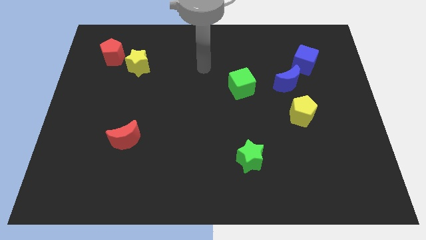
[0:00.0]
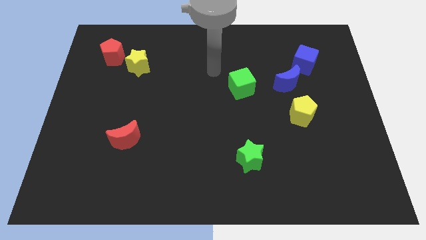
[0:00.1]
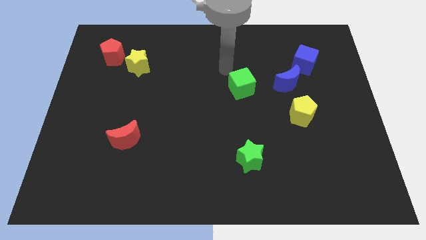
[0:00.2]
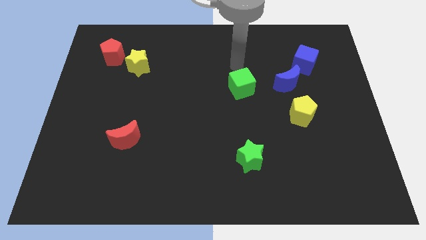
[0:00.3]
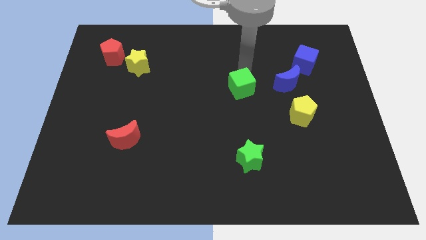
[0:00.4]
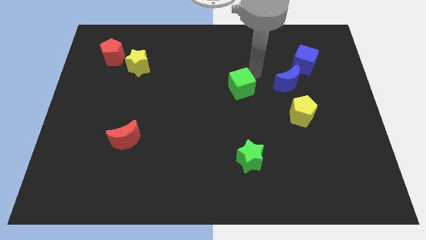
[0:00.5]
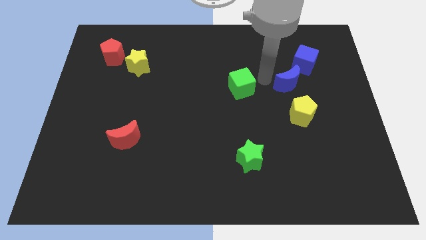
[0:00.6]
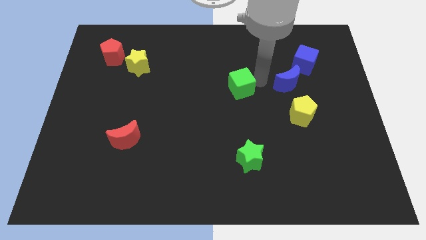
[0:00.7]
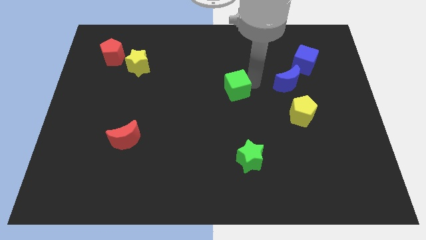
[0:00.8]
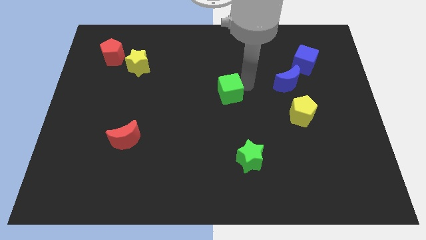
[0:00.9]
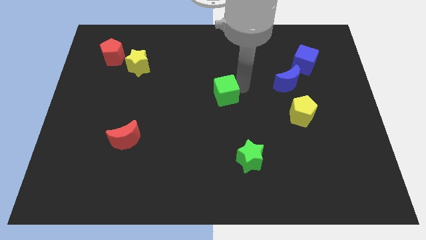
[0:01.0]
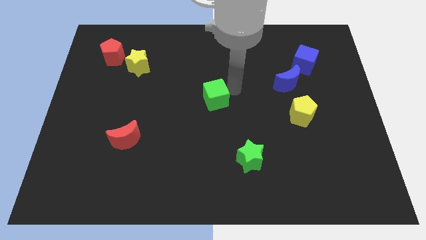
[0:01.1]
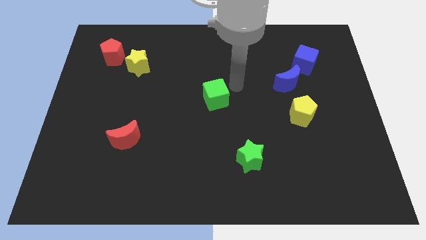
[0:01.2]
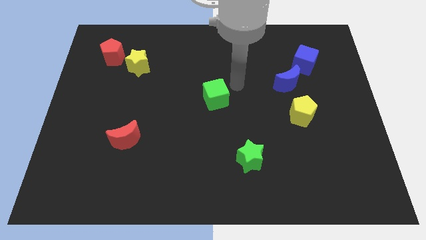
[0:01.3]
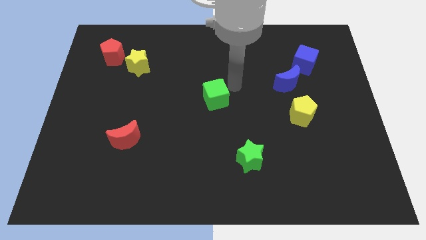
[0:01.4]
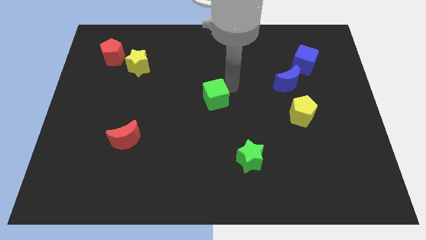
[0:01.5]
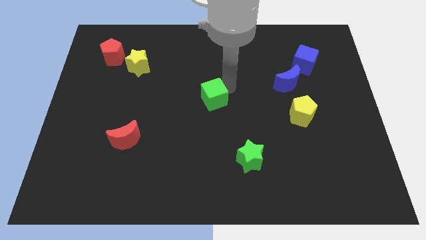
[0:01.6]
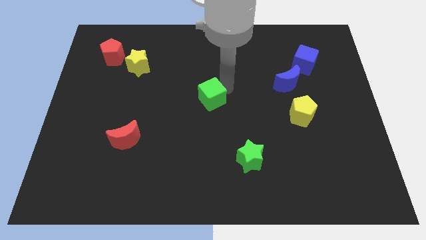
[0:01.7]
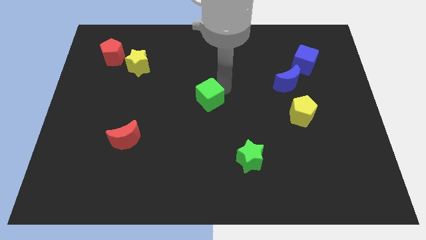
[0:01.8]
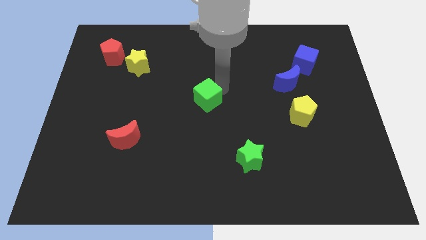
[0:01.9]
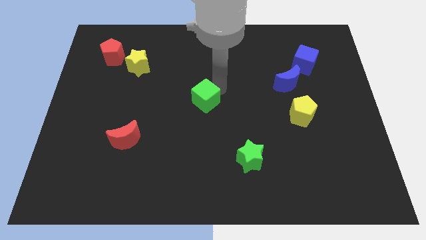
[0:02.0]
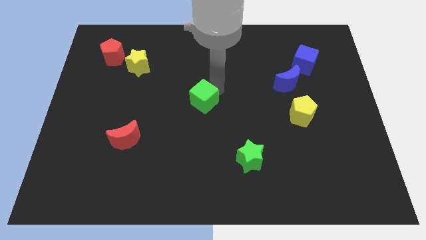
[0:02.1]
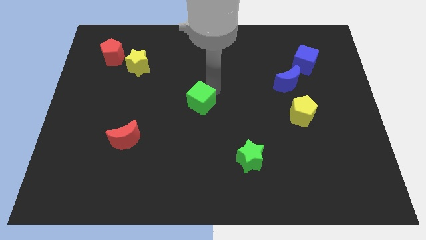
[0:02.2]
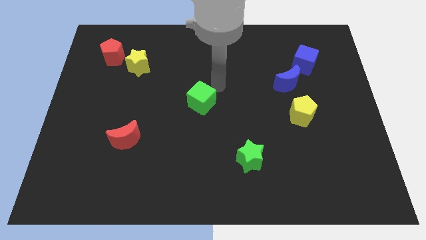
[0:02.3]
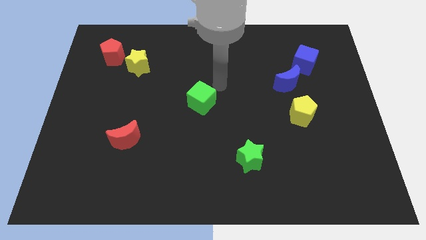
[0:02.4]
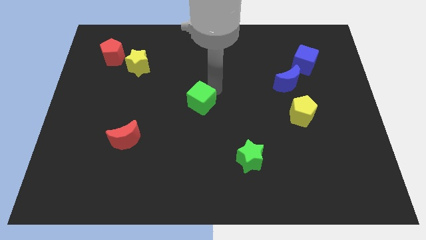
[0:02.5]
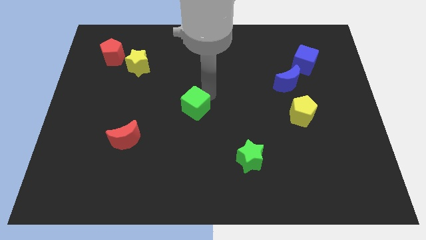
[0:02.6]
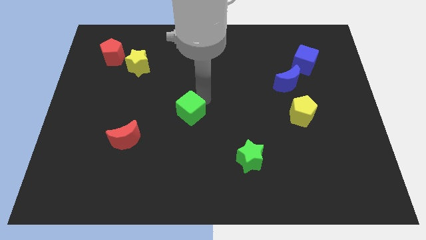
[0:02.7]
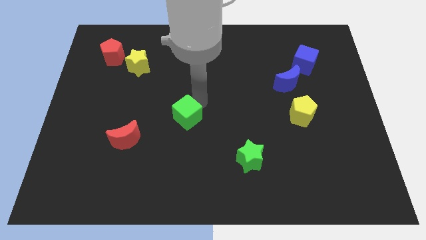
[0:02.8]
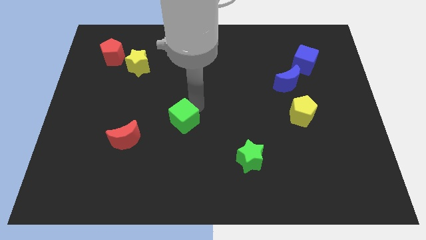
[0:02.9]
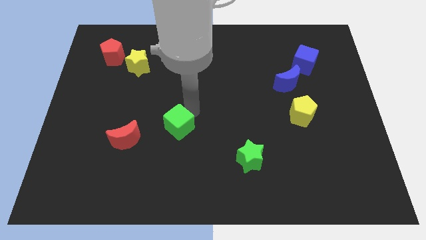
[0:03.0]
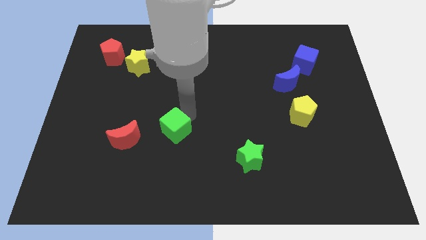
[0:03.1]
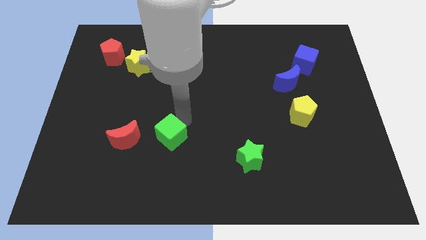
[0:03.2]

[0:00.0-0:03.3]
slide the green cube diagonally downwards and left

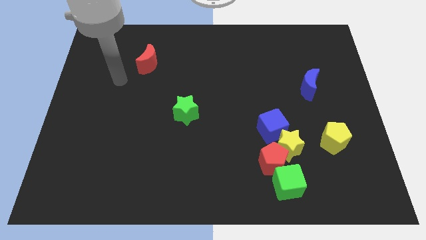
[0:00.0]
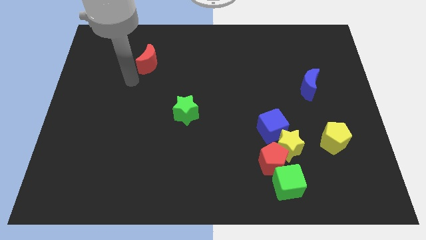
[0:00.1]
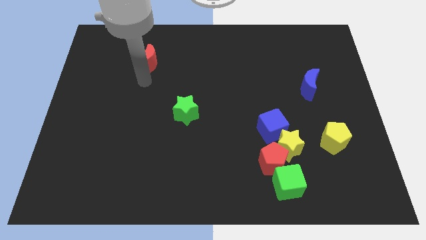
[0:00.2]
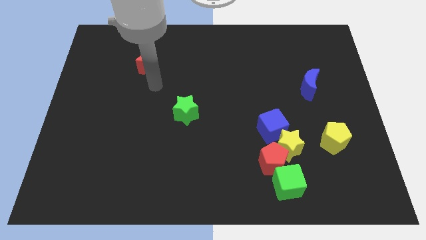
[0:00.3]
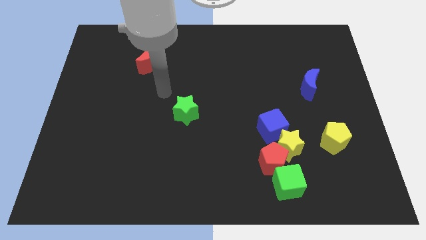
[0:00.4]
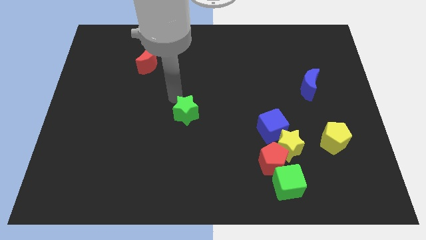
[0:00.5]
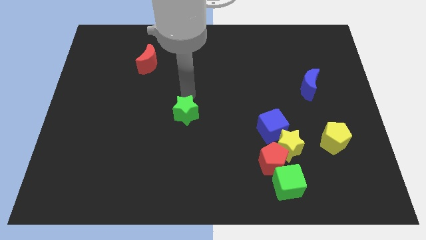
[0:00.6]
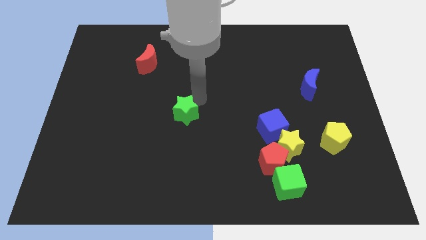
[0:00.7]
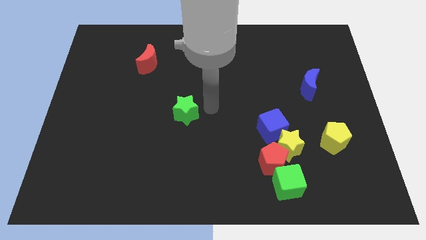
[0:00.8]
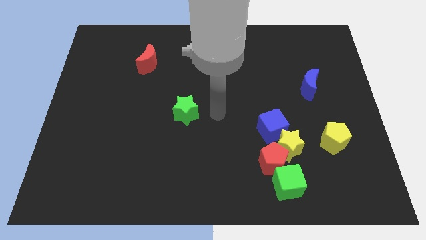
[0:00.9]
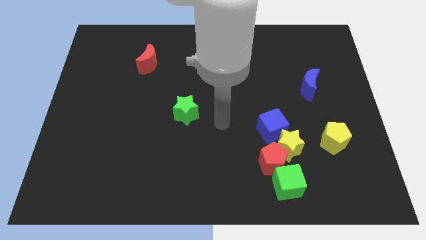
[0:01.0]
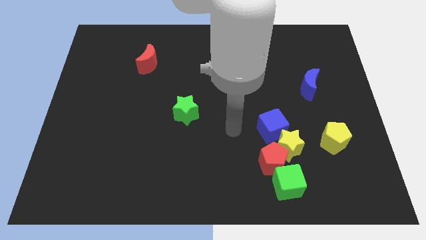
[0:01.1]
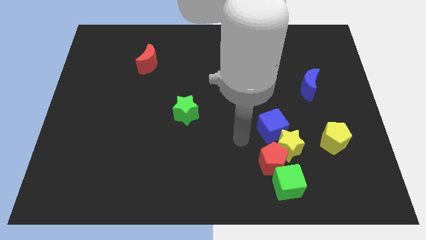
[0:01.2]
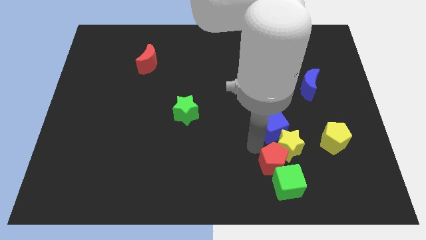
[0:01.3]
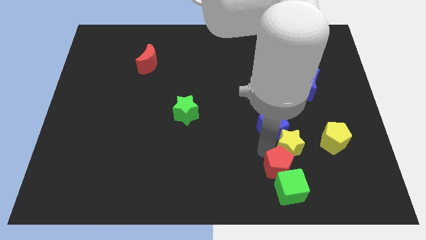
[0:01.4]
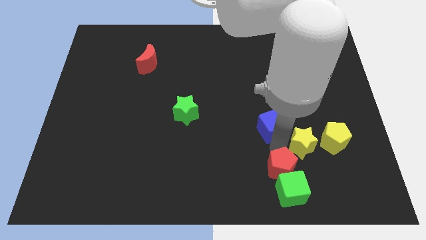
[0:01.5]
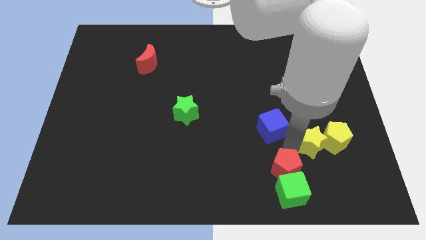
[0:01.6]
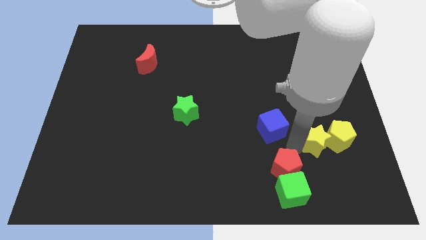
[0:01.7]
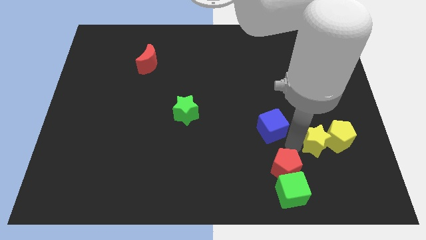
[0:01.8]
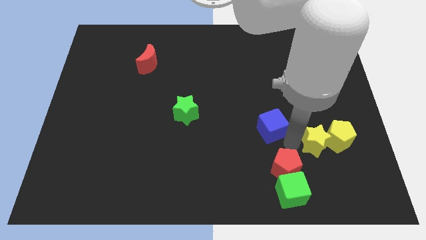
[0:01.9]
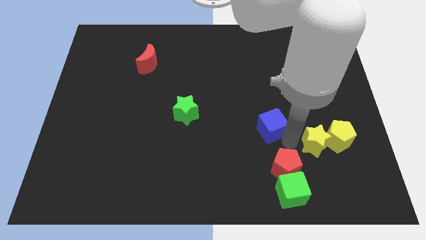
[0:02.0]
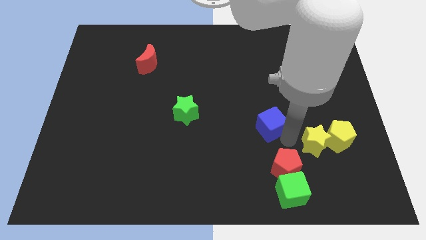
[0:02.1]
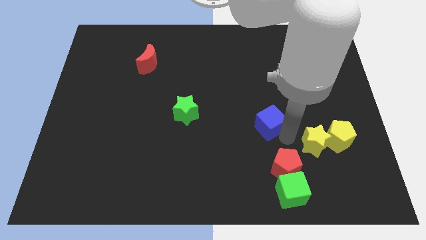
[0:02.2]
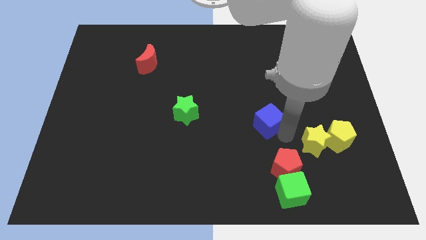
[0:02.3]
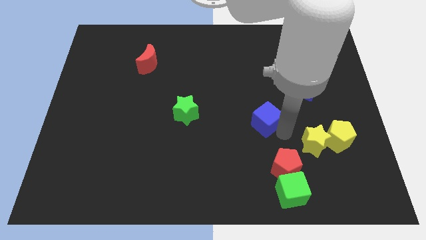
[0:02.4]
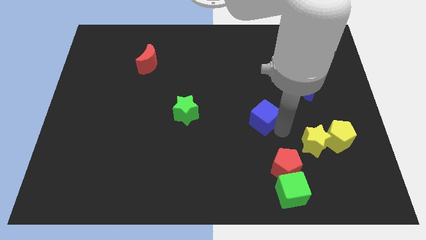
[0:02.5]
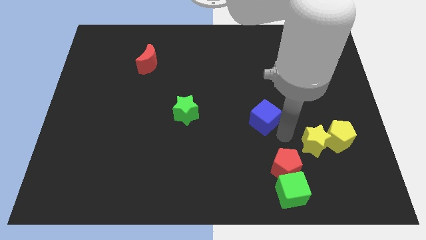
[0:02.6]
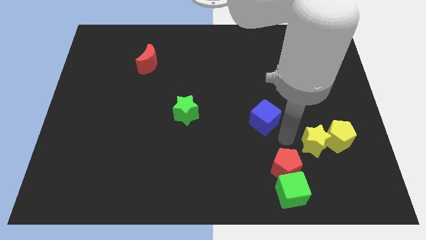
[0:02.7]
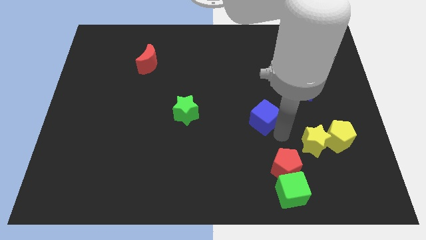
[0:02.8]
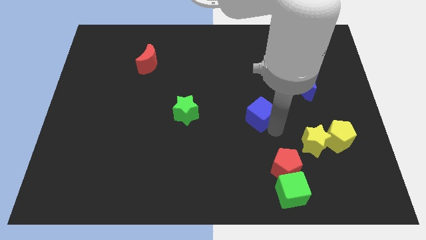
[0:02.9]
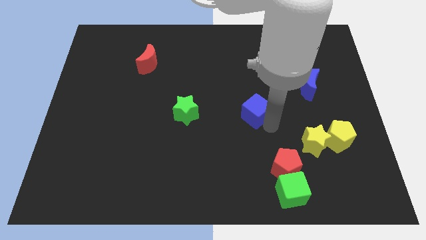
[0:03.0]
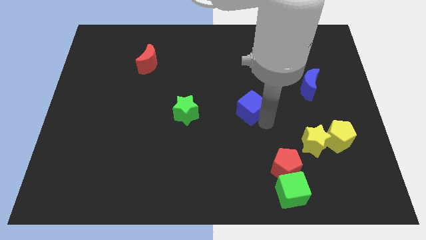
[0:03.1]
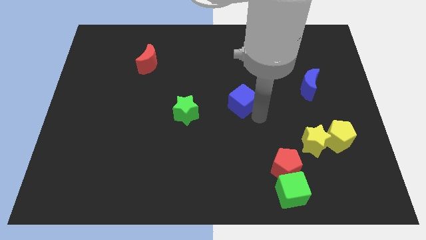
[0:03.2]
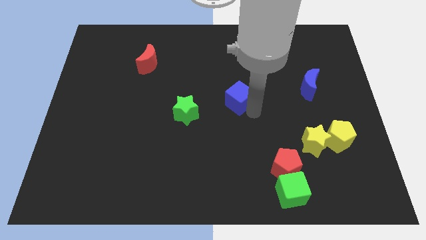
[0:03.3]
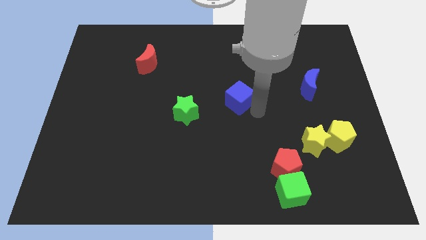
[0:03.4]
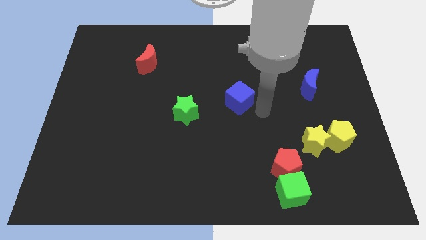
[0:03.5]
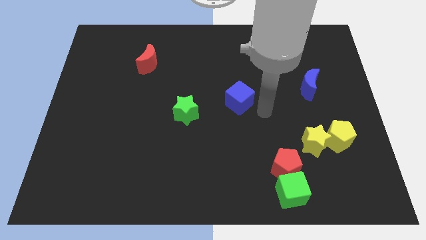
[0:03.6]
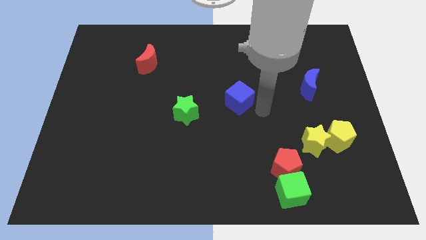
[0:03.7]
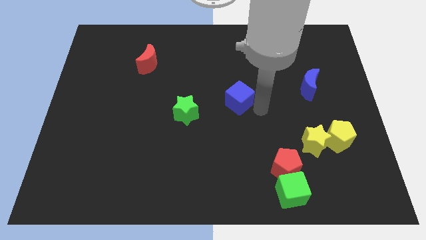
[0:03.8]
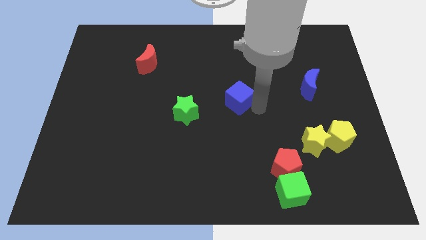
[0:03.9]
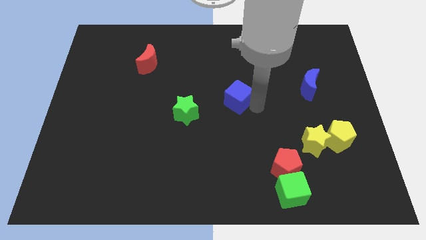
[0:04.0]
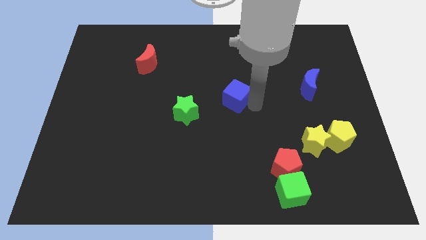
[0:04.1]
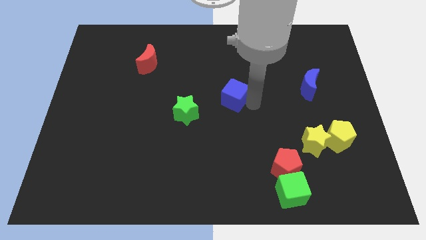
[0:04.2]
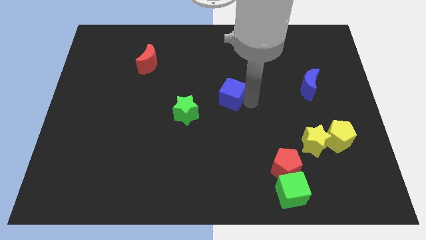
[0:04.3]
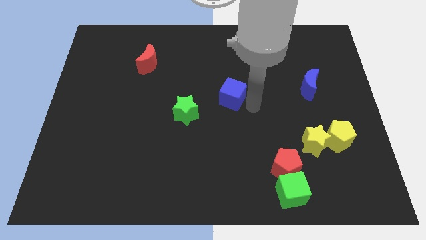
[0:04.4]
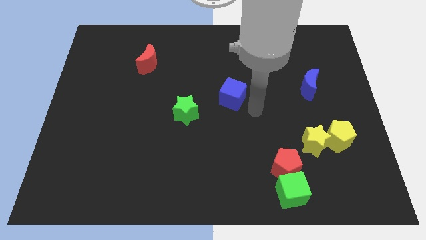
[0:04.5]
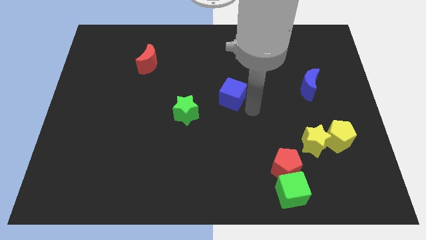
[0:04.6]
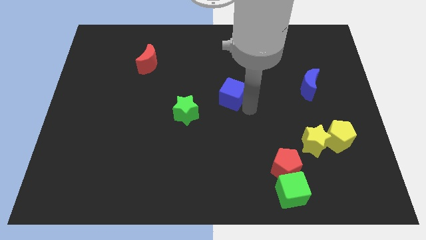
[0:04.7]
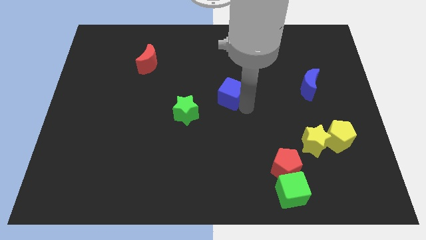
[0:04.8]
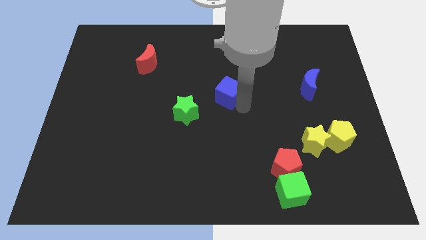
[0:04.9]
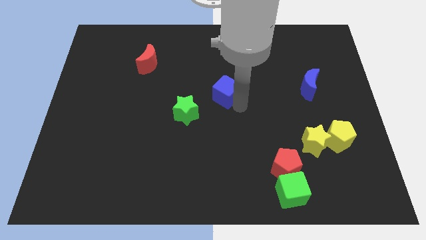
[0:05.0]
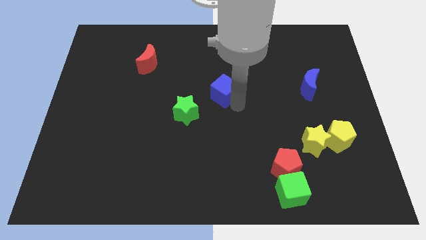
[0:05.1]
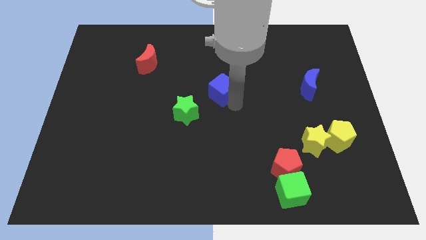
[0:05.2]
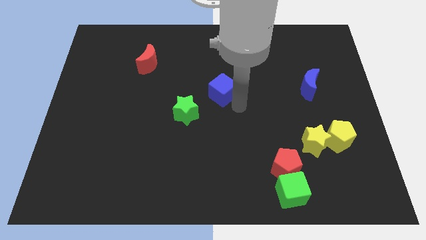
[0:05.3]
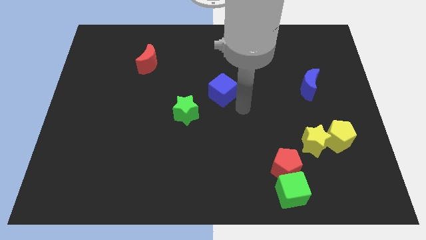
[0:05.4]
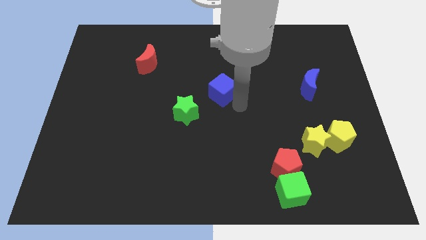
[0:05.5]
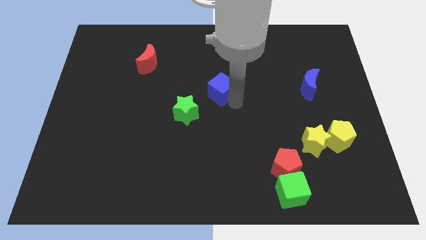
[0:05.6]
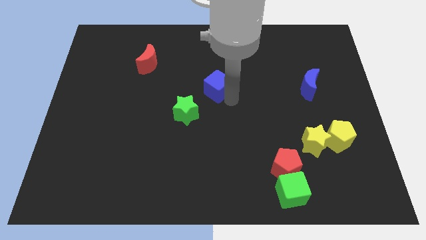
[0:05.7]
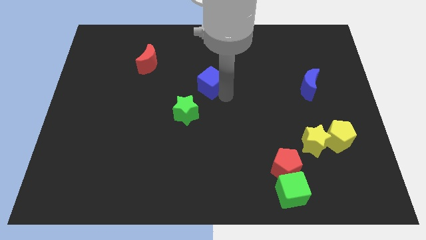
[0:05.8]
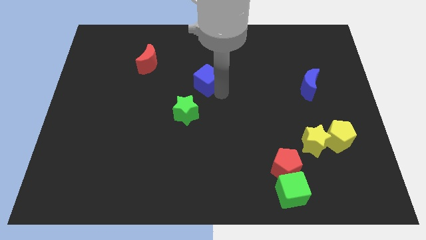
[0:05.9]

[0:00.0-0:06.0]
slide the blue cube upwards and to the left
